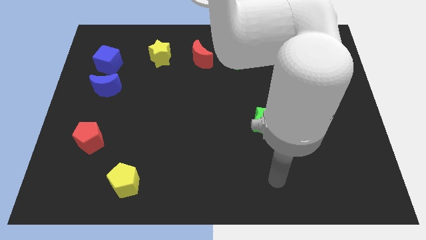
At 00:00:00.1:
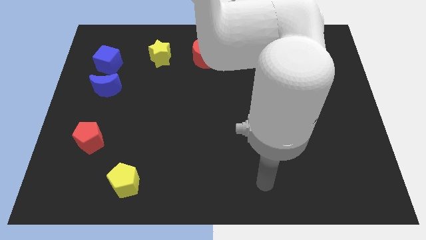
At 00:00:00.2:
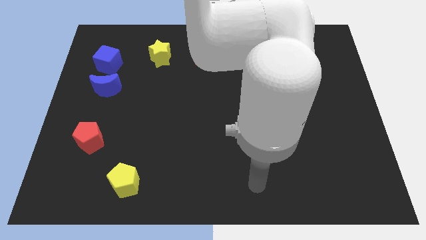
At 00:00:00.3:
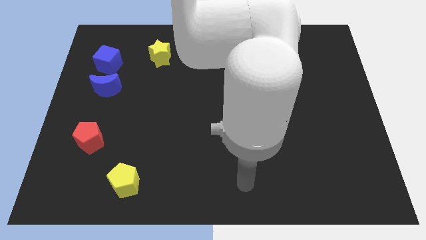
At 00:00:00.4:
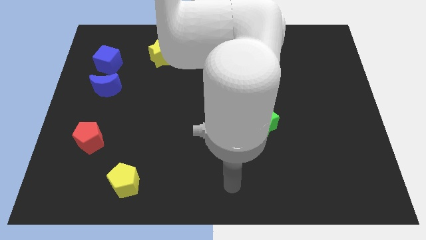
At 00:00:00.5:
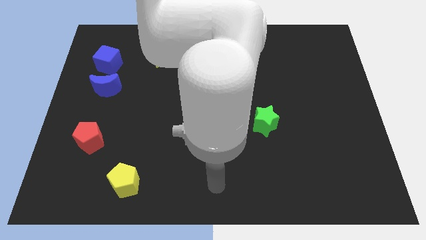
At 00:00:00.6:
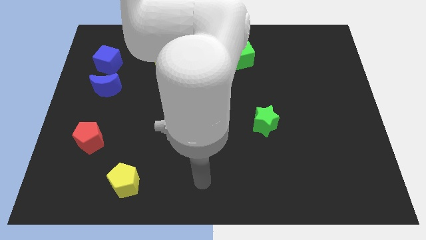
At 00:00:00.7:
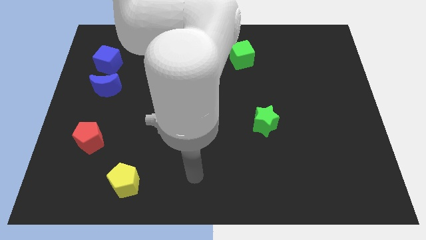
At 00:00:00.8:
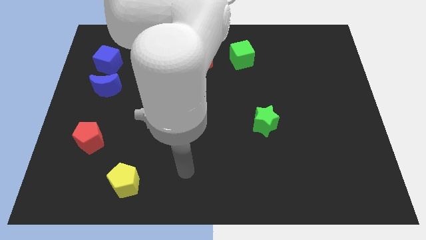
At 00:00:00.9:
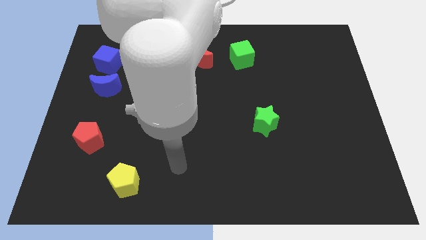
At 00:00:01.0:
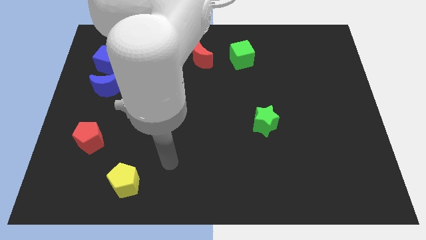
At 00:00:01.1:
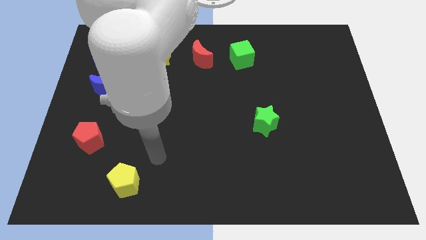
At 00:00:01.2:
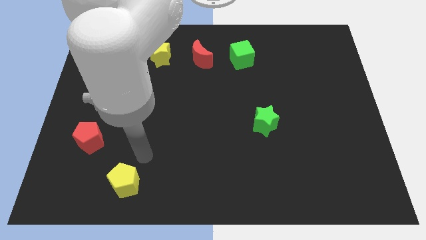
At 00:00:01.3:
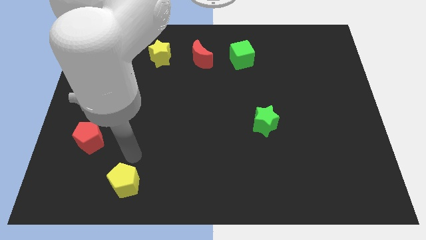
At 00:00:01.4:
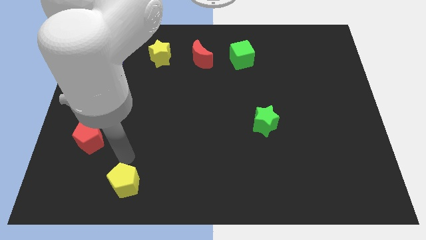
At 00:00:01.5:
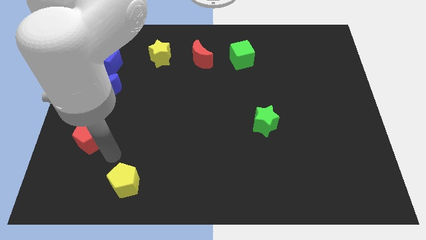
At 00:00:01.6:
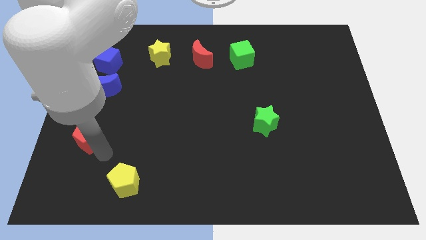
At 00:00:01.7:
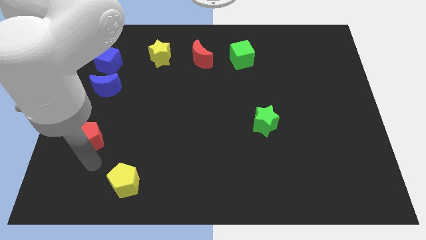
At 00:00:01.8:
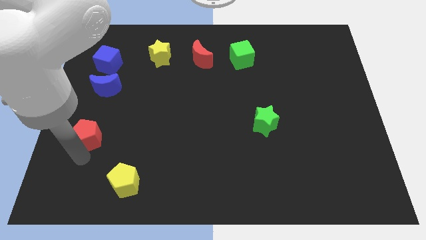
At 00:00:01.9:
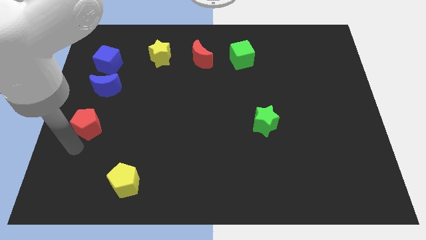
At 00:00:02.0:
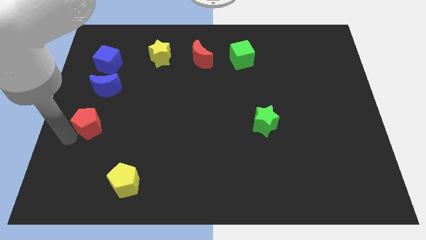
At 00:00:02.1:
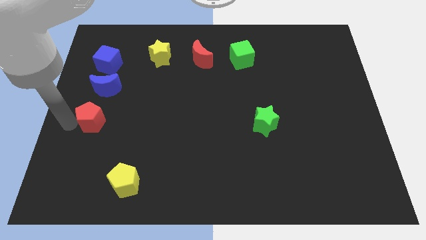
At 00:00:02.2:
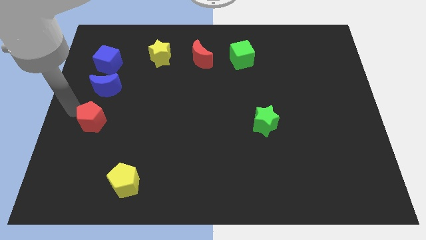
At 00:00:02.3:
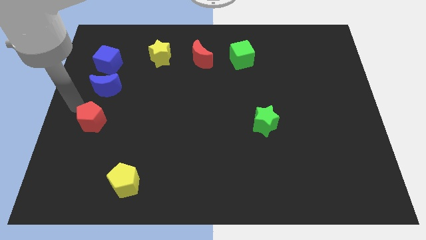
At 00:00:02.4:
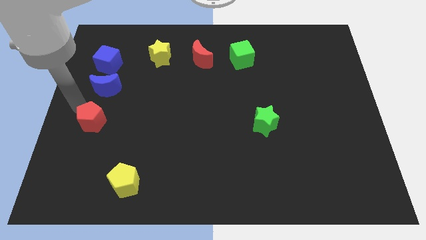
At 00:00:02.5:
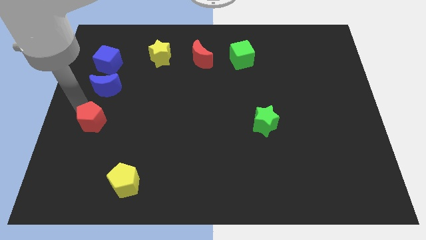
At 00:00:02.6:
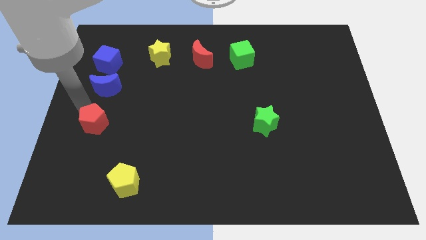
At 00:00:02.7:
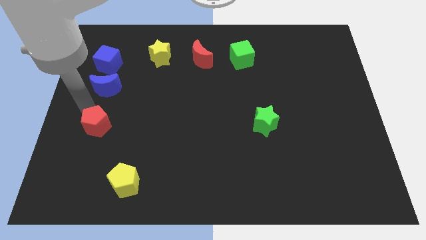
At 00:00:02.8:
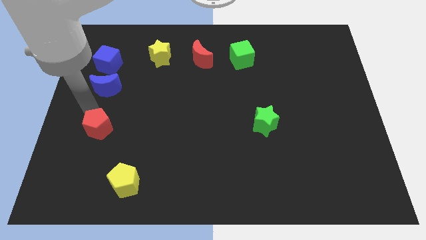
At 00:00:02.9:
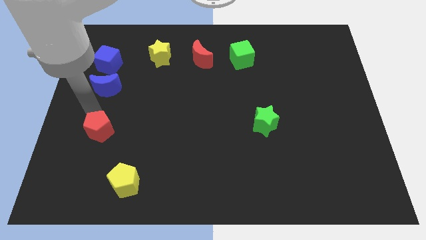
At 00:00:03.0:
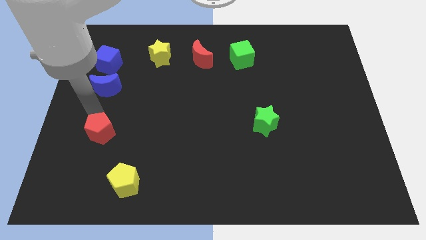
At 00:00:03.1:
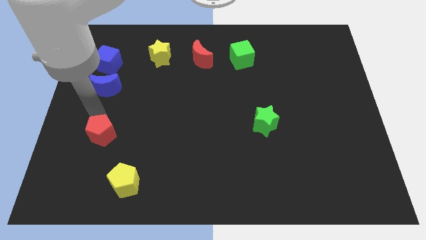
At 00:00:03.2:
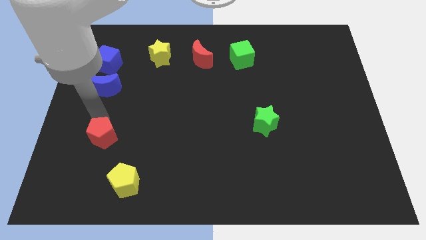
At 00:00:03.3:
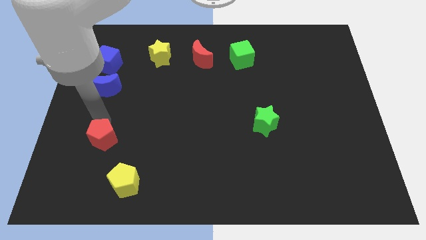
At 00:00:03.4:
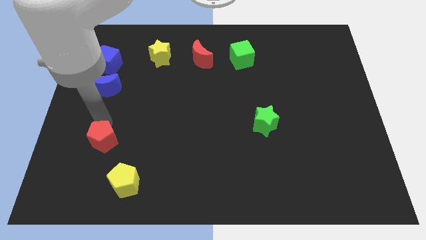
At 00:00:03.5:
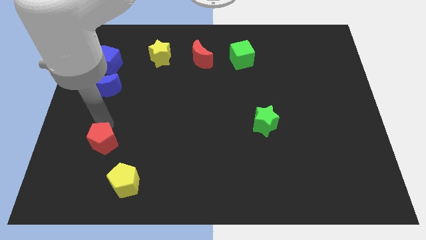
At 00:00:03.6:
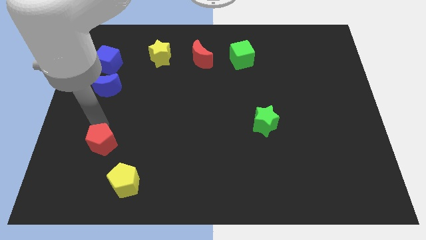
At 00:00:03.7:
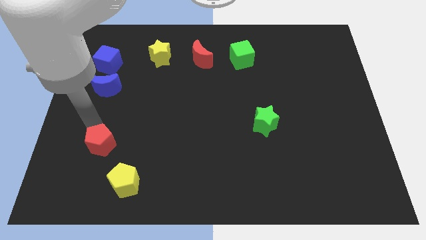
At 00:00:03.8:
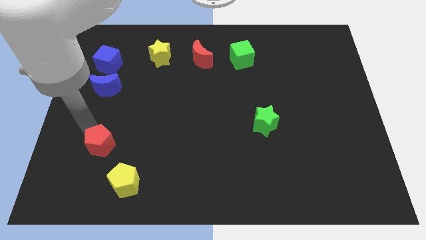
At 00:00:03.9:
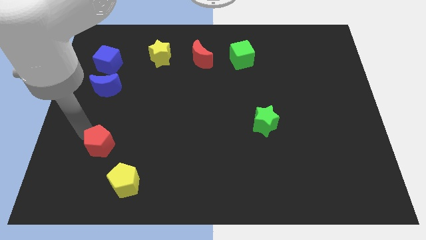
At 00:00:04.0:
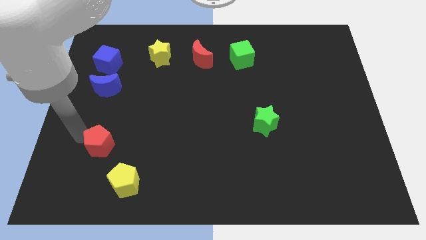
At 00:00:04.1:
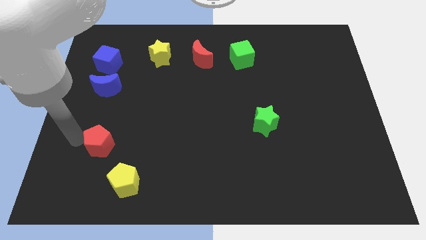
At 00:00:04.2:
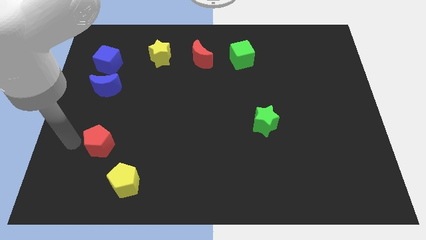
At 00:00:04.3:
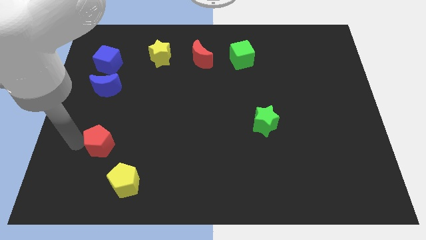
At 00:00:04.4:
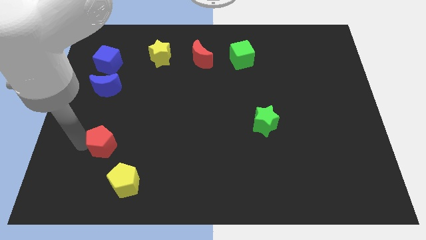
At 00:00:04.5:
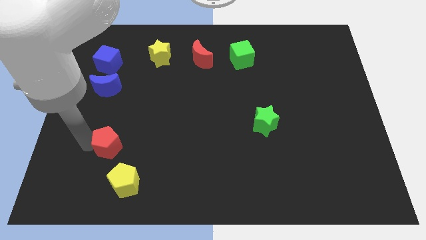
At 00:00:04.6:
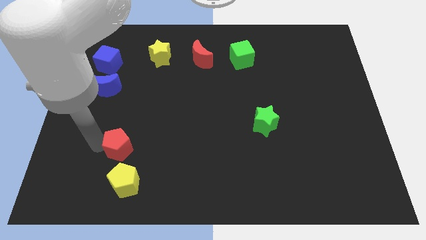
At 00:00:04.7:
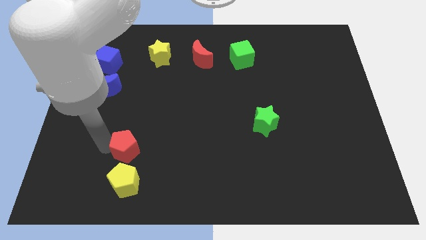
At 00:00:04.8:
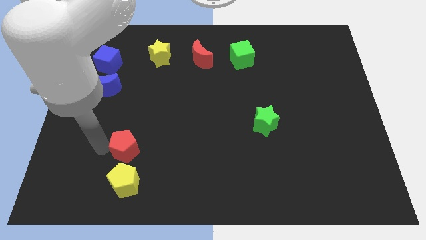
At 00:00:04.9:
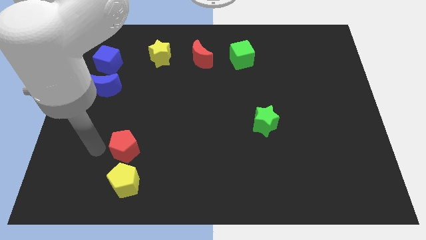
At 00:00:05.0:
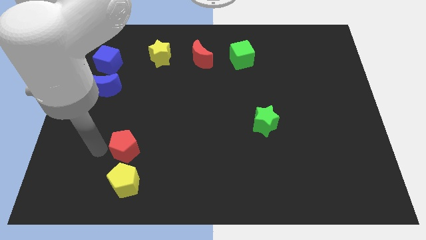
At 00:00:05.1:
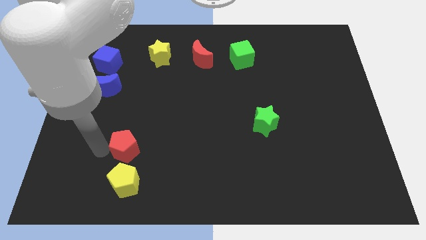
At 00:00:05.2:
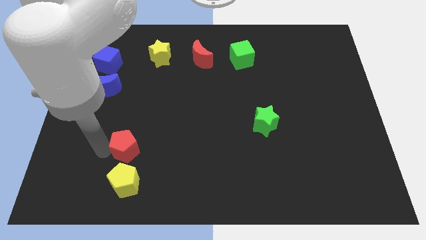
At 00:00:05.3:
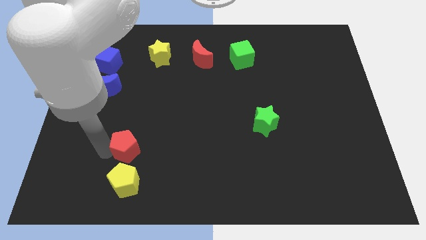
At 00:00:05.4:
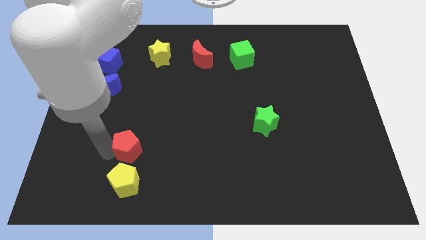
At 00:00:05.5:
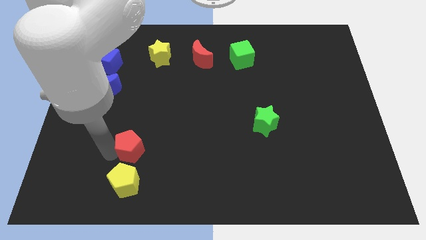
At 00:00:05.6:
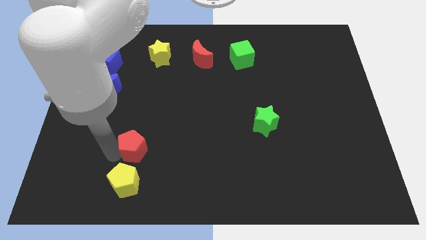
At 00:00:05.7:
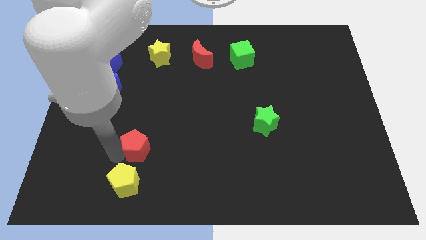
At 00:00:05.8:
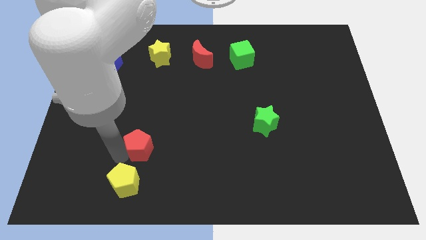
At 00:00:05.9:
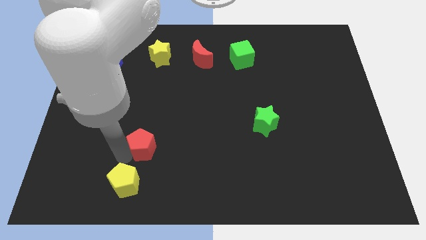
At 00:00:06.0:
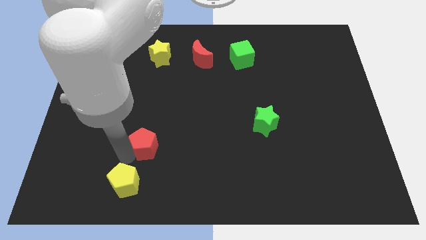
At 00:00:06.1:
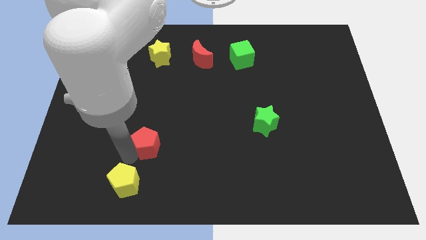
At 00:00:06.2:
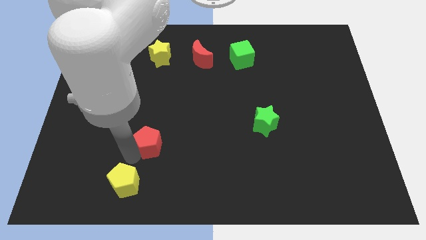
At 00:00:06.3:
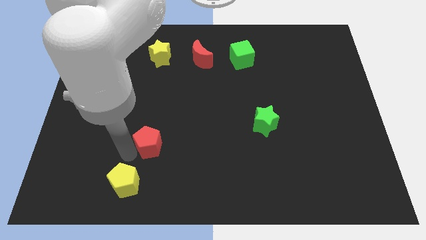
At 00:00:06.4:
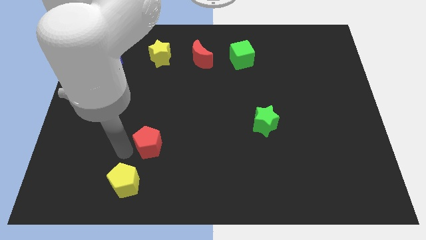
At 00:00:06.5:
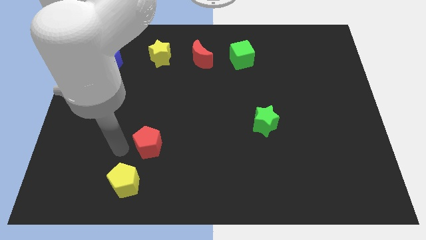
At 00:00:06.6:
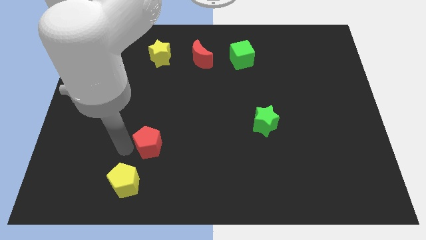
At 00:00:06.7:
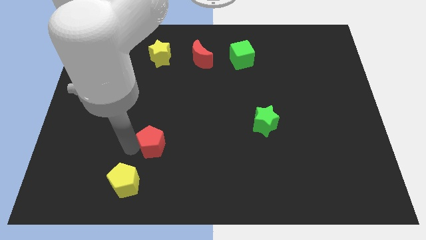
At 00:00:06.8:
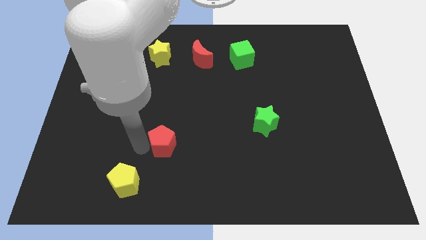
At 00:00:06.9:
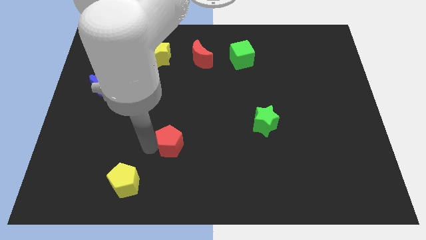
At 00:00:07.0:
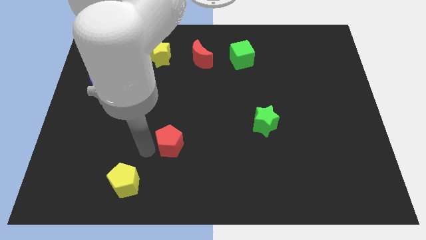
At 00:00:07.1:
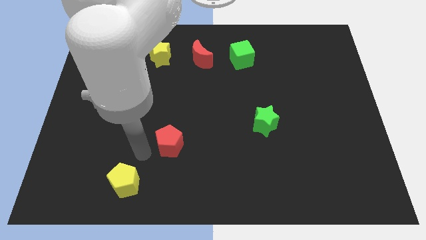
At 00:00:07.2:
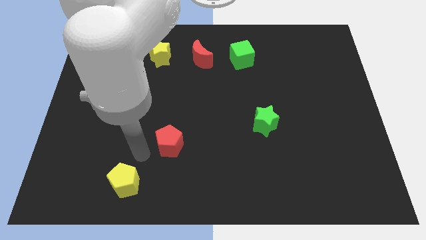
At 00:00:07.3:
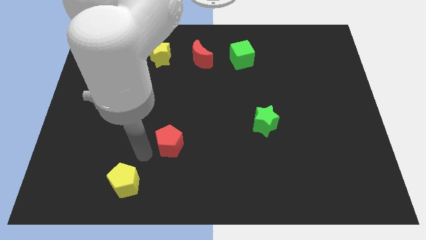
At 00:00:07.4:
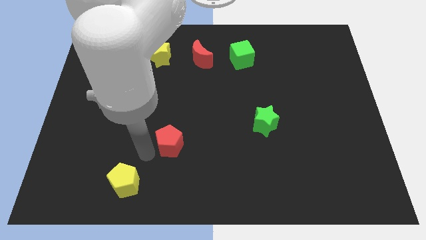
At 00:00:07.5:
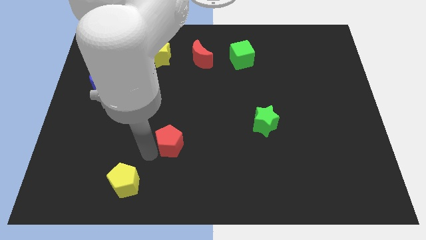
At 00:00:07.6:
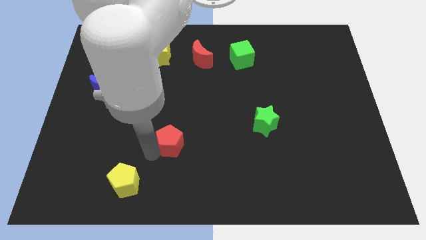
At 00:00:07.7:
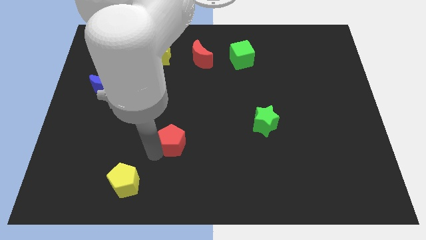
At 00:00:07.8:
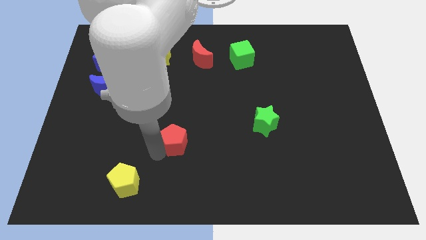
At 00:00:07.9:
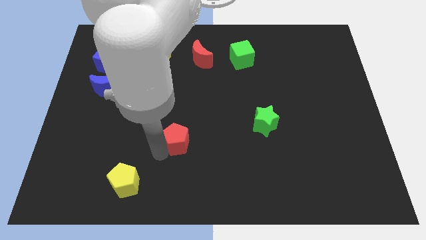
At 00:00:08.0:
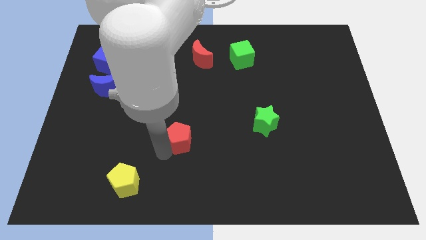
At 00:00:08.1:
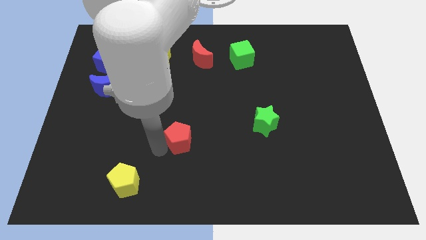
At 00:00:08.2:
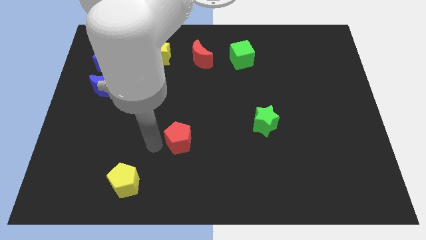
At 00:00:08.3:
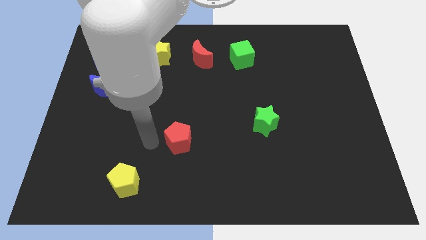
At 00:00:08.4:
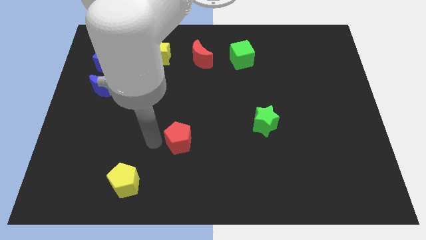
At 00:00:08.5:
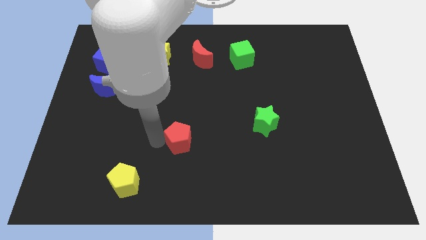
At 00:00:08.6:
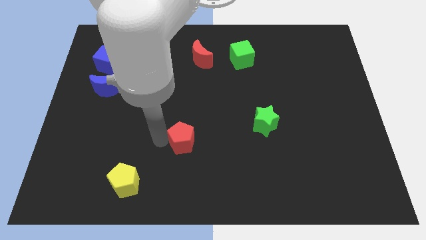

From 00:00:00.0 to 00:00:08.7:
push the red pentagon to the right
